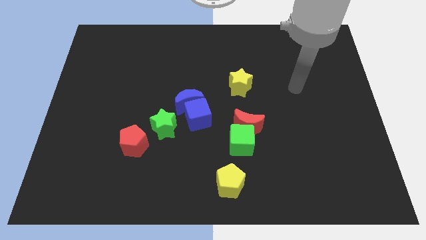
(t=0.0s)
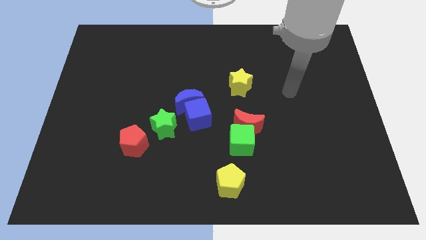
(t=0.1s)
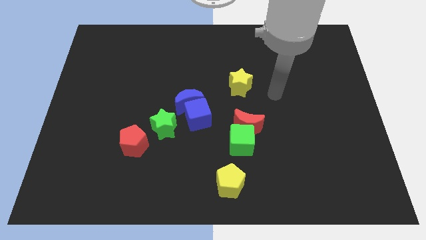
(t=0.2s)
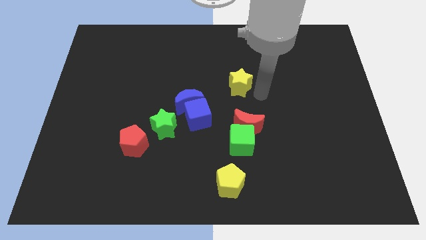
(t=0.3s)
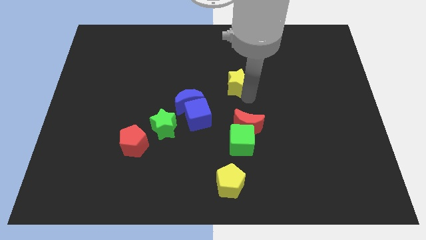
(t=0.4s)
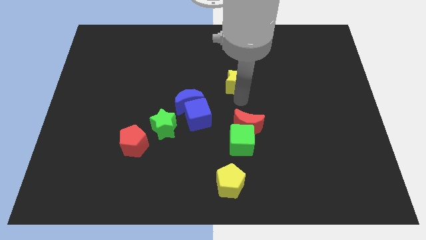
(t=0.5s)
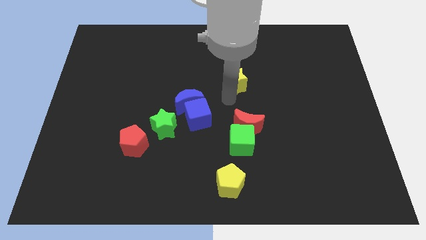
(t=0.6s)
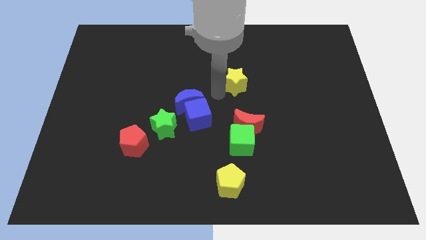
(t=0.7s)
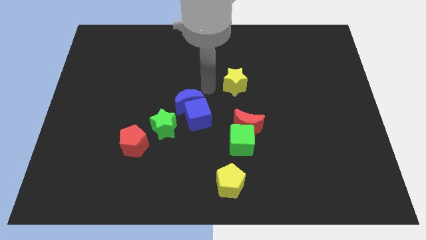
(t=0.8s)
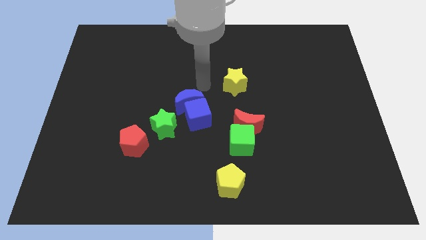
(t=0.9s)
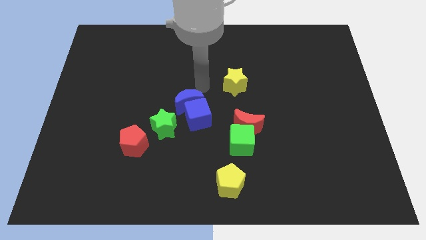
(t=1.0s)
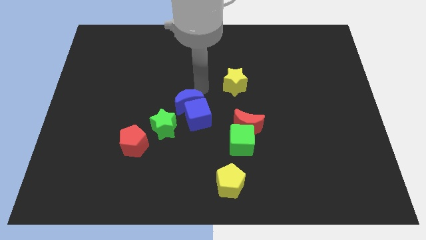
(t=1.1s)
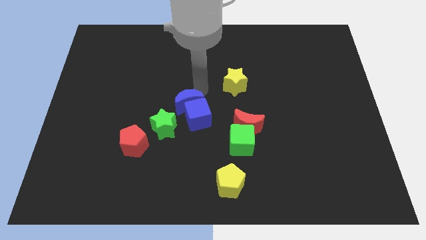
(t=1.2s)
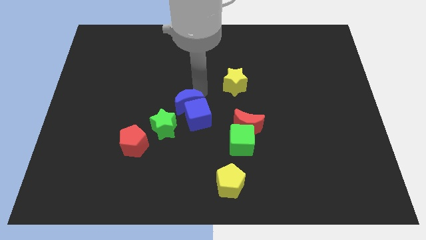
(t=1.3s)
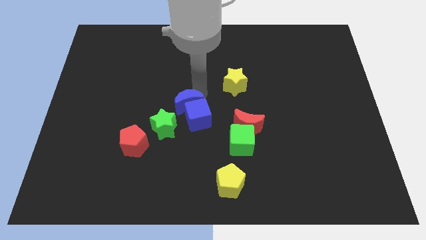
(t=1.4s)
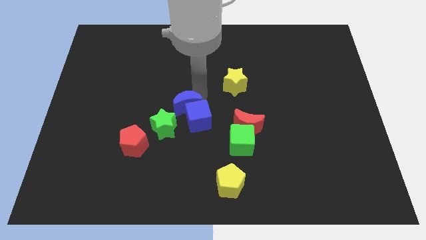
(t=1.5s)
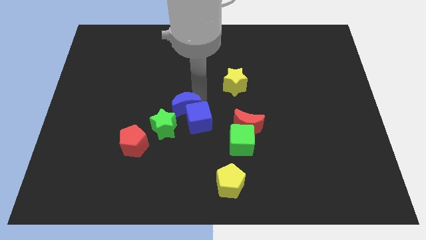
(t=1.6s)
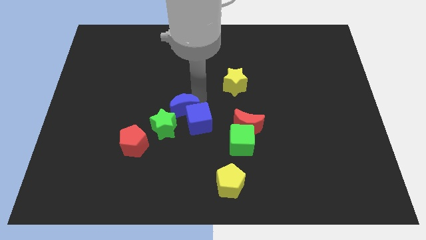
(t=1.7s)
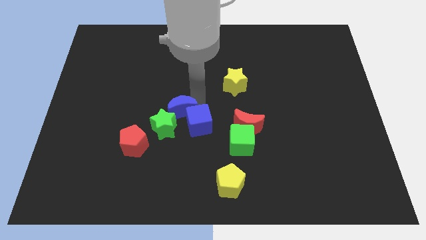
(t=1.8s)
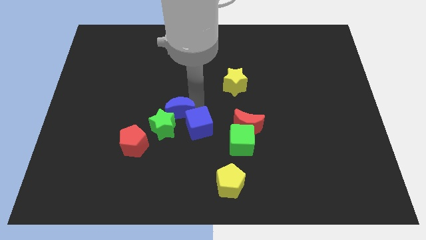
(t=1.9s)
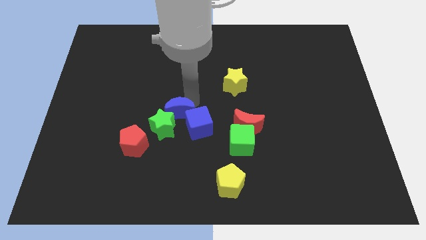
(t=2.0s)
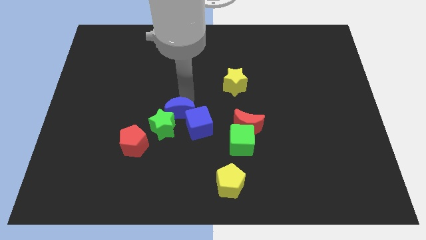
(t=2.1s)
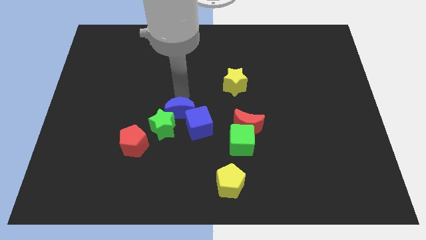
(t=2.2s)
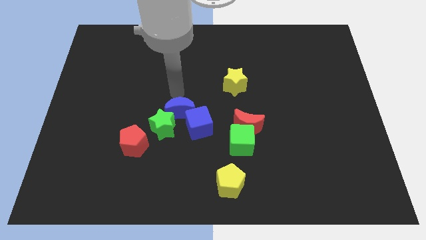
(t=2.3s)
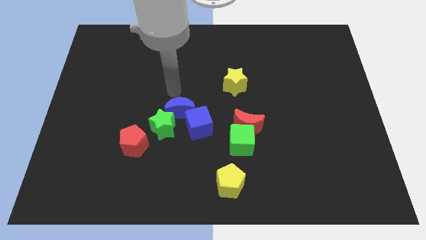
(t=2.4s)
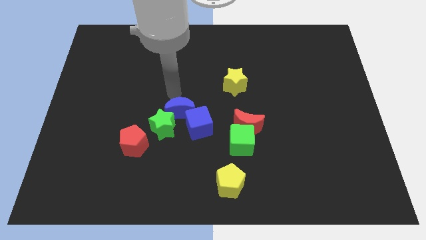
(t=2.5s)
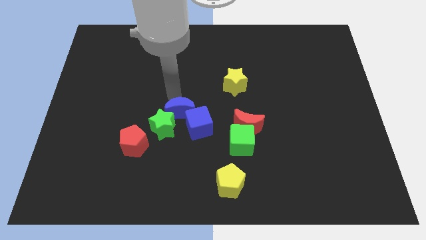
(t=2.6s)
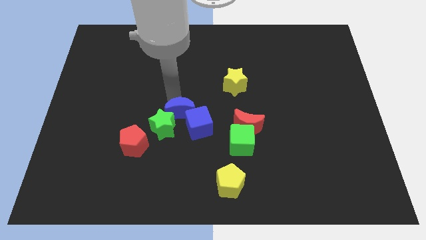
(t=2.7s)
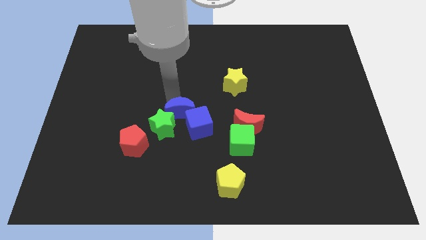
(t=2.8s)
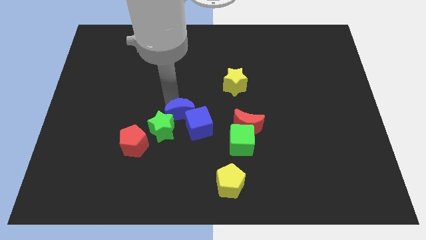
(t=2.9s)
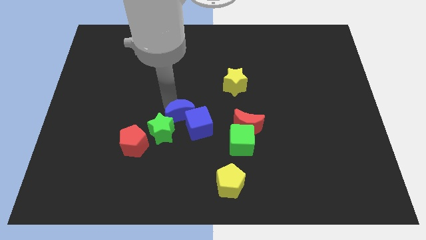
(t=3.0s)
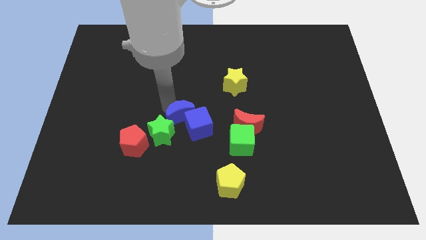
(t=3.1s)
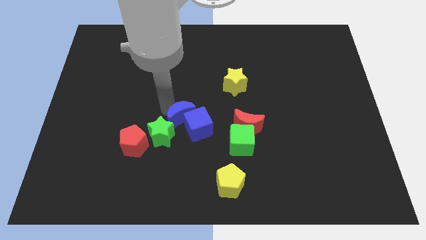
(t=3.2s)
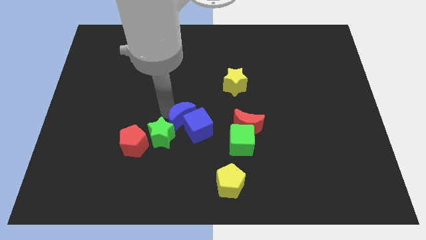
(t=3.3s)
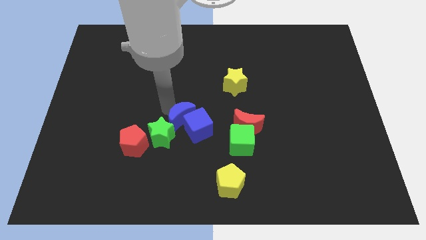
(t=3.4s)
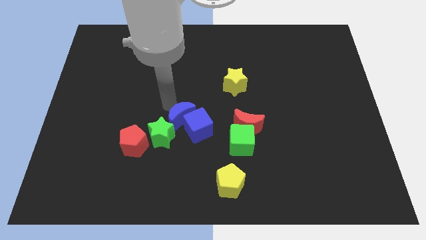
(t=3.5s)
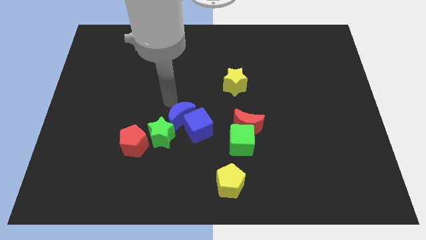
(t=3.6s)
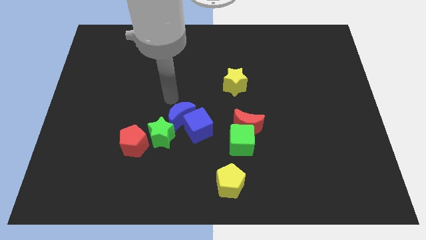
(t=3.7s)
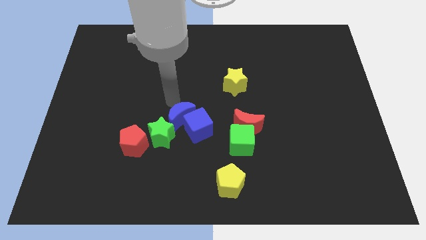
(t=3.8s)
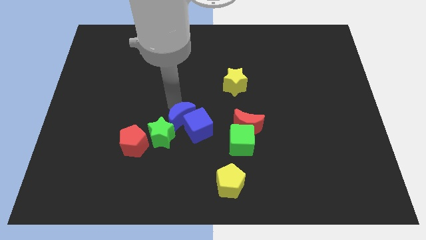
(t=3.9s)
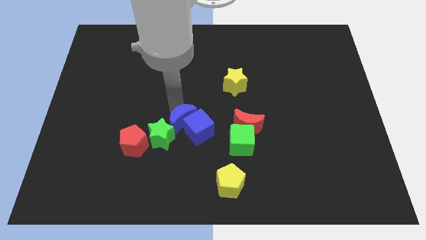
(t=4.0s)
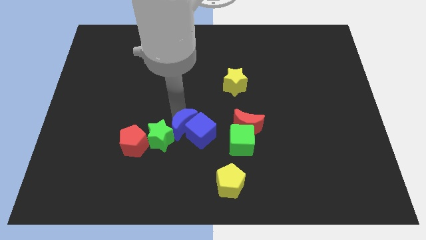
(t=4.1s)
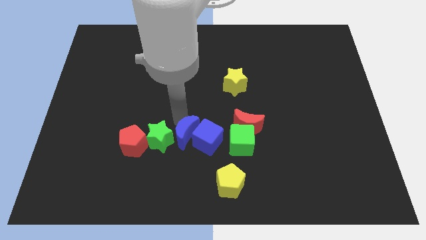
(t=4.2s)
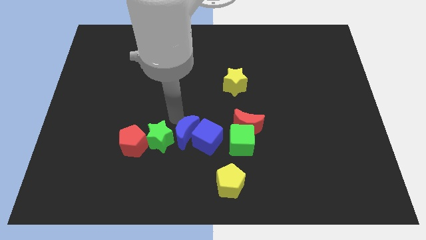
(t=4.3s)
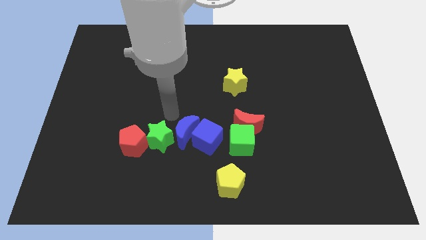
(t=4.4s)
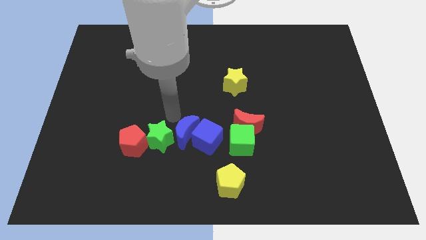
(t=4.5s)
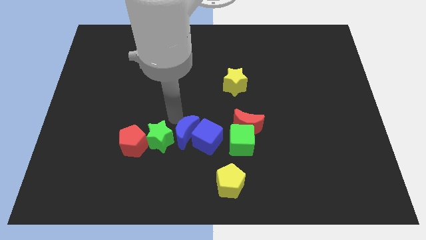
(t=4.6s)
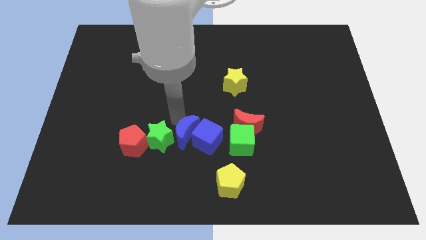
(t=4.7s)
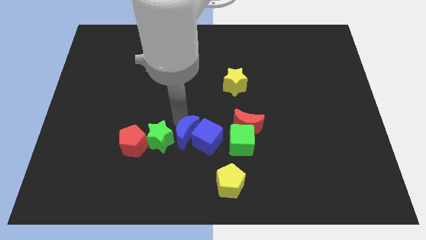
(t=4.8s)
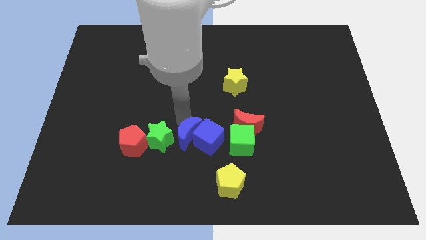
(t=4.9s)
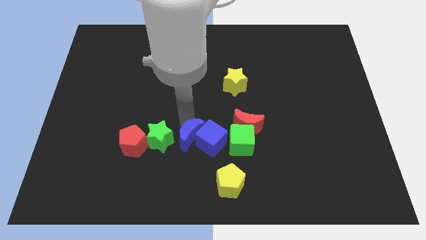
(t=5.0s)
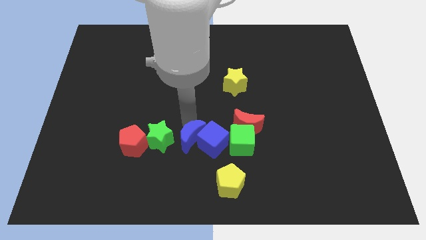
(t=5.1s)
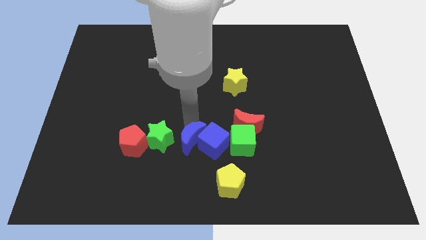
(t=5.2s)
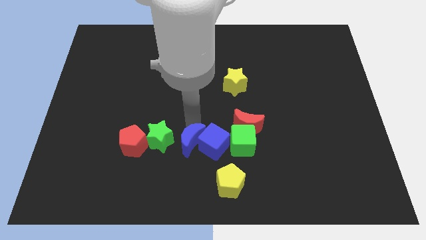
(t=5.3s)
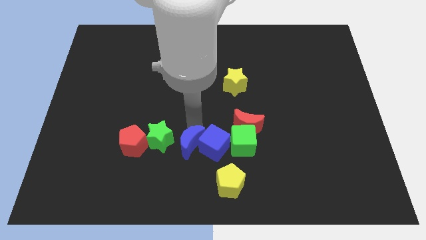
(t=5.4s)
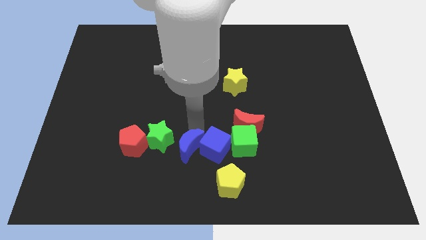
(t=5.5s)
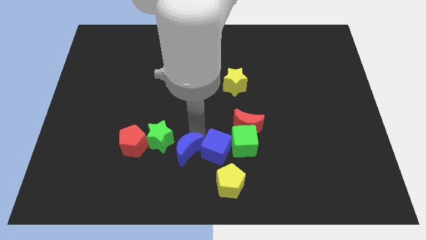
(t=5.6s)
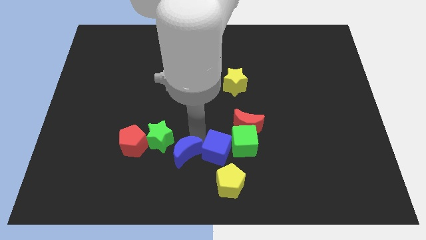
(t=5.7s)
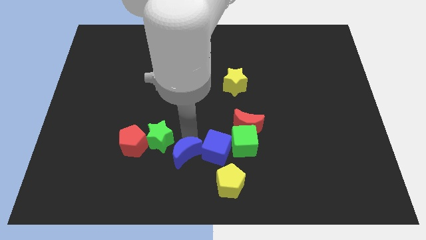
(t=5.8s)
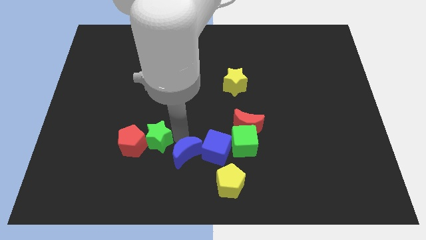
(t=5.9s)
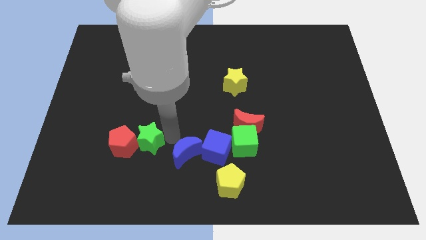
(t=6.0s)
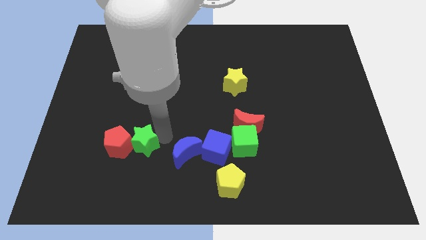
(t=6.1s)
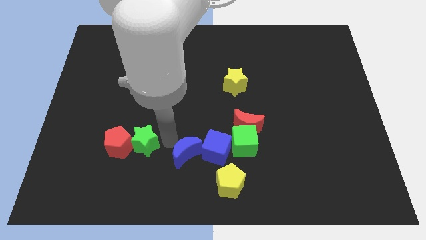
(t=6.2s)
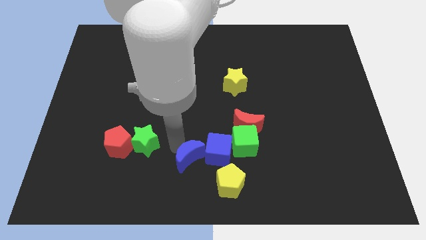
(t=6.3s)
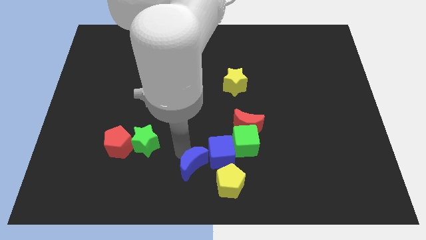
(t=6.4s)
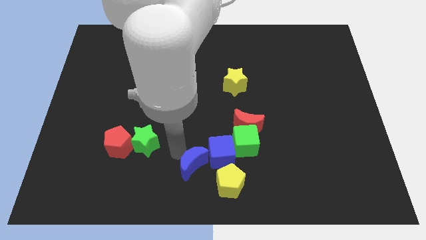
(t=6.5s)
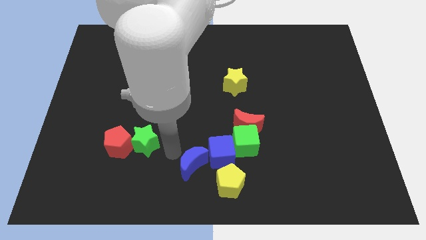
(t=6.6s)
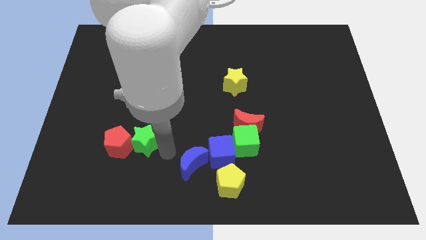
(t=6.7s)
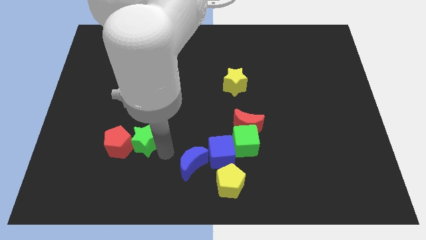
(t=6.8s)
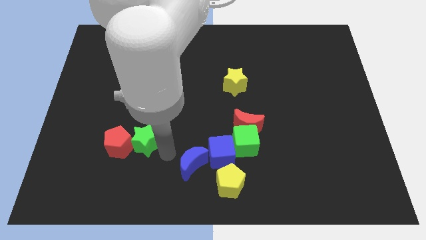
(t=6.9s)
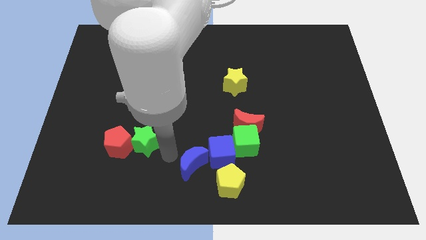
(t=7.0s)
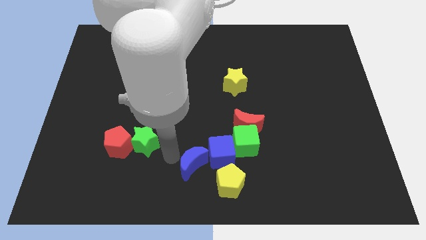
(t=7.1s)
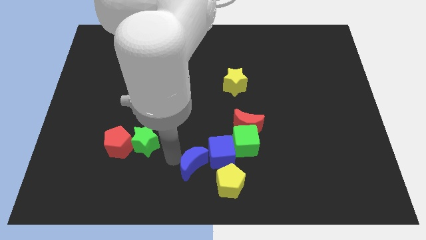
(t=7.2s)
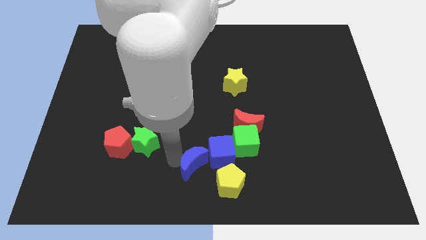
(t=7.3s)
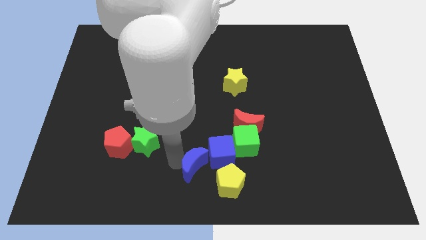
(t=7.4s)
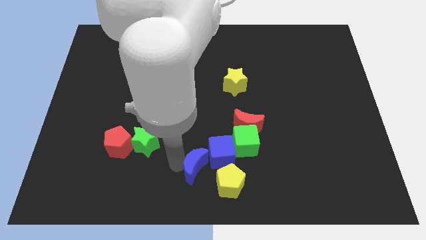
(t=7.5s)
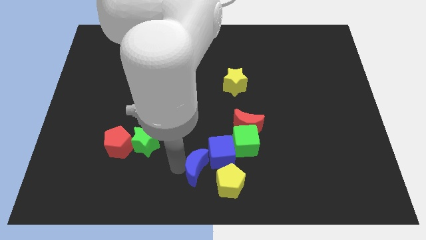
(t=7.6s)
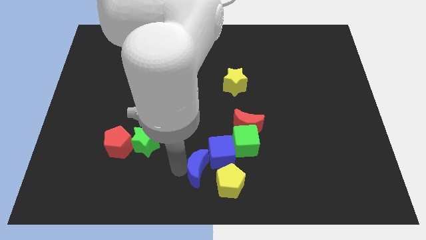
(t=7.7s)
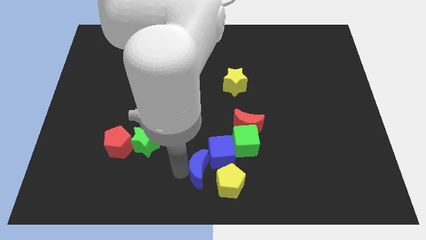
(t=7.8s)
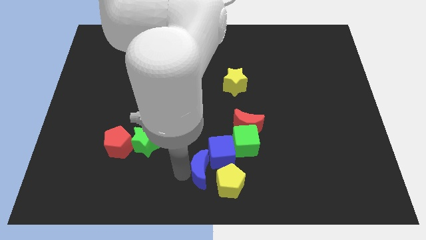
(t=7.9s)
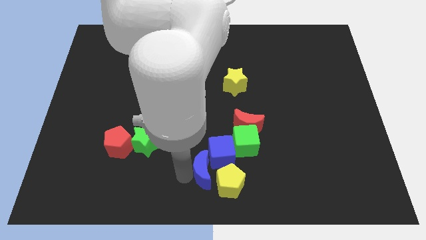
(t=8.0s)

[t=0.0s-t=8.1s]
slide the blue moon close to the yellow pentagon
